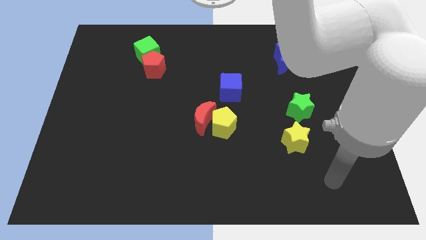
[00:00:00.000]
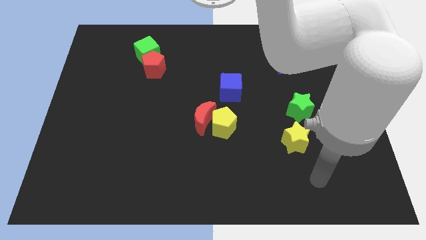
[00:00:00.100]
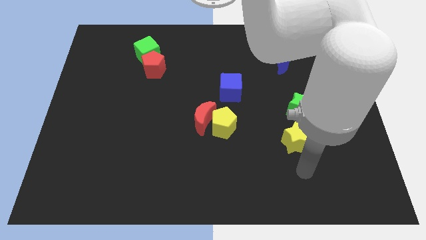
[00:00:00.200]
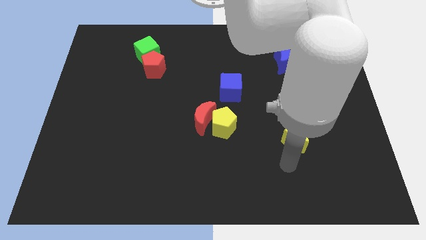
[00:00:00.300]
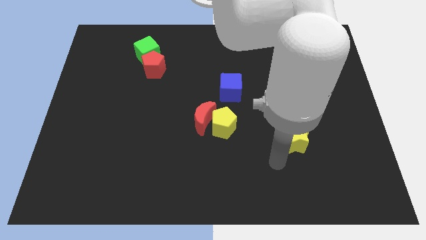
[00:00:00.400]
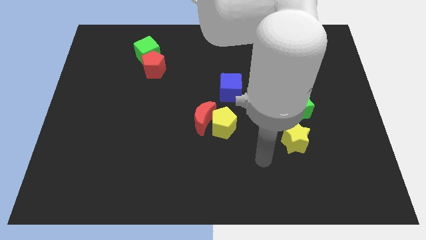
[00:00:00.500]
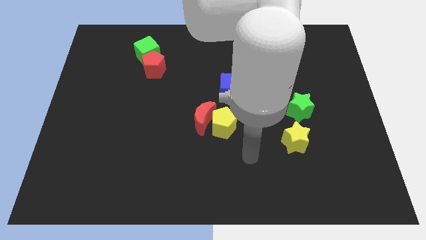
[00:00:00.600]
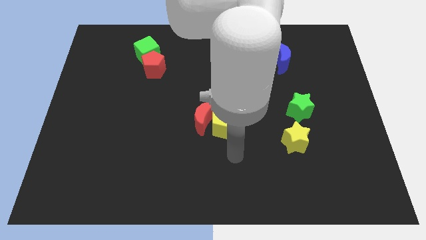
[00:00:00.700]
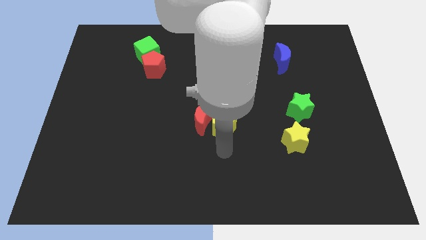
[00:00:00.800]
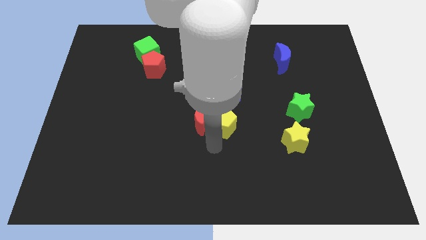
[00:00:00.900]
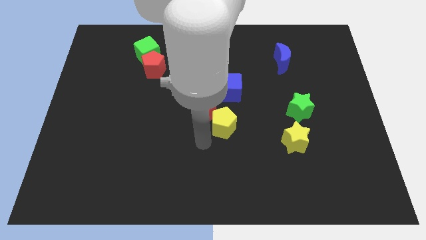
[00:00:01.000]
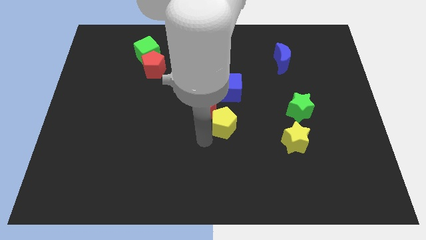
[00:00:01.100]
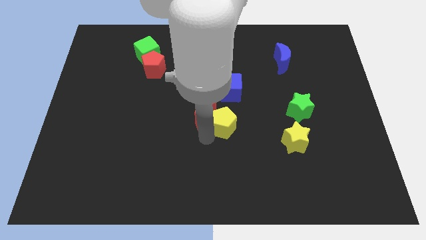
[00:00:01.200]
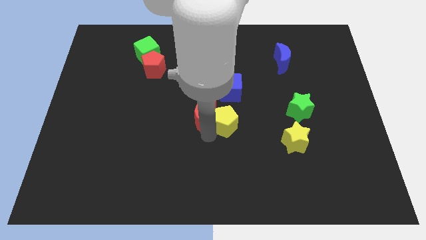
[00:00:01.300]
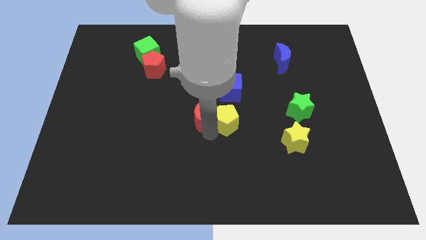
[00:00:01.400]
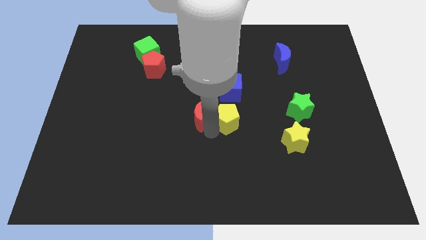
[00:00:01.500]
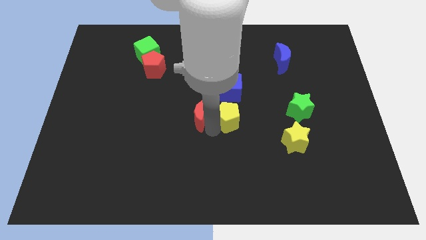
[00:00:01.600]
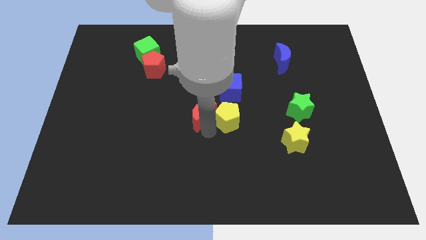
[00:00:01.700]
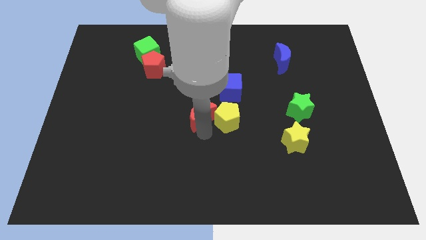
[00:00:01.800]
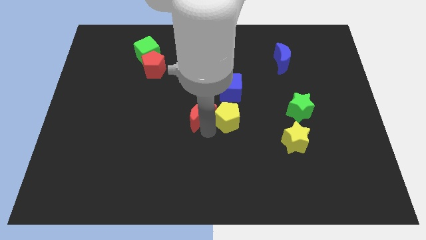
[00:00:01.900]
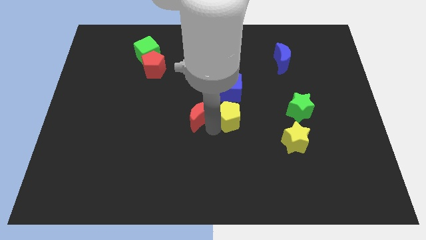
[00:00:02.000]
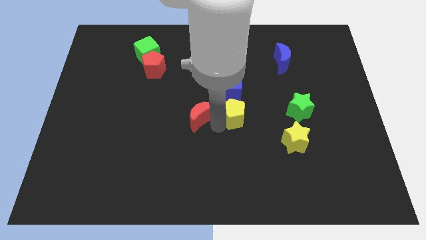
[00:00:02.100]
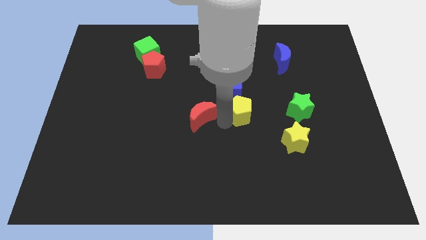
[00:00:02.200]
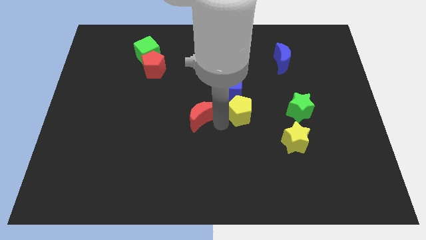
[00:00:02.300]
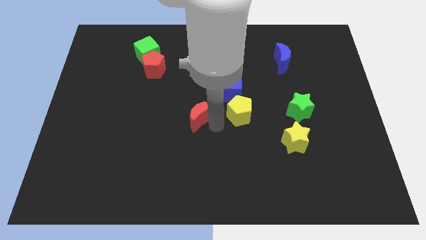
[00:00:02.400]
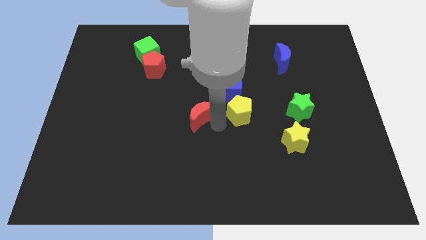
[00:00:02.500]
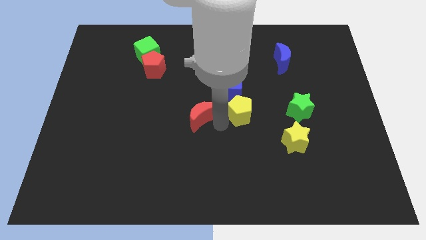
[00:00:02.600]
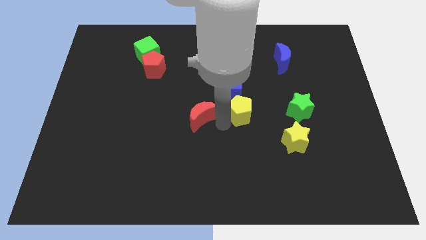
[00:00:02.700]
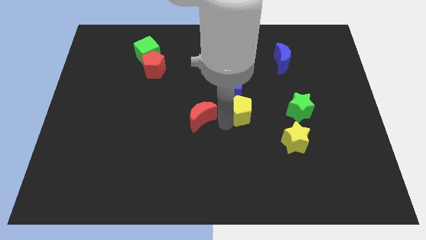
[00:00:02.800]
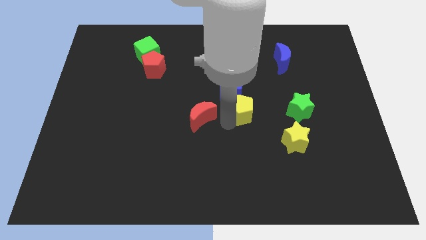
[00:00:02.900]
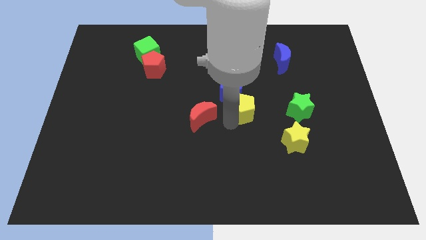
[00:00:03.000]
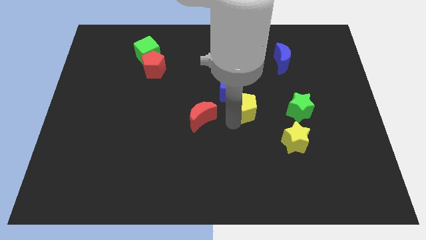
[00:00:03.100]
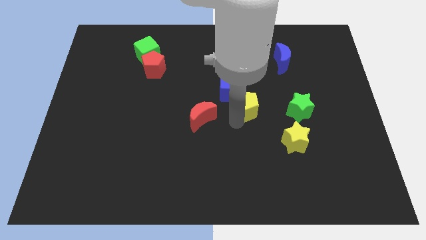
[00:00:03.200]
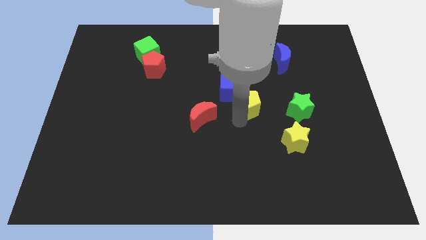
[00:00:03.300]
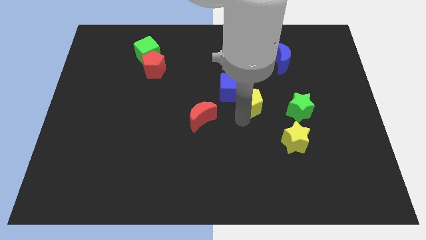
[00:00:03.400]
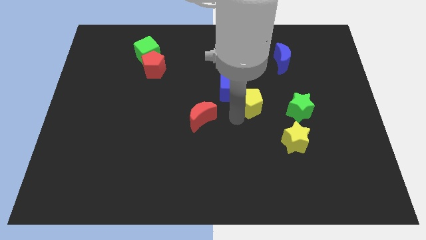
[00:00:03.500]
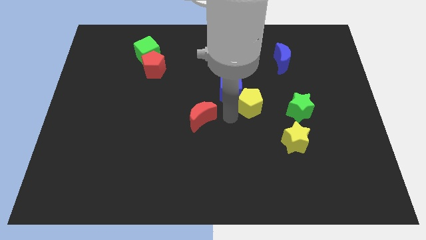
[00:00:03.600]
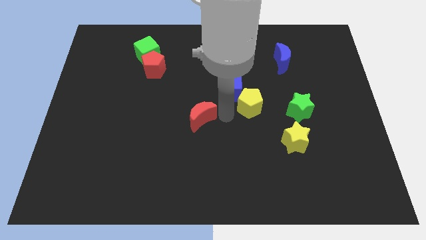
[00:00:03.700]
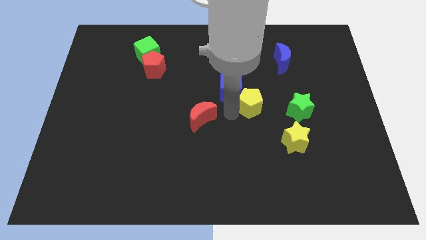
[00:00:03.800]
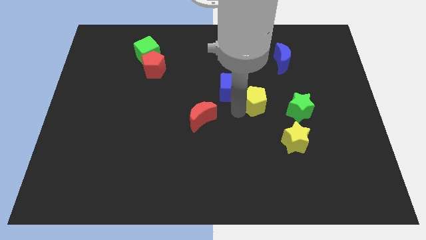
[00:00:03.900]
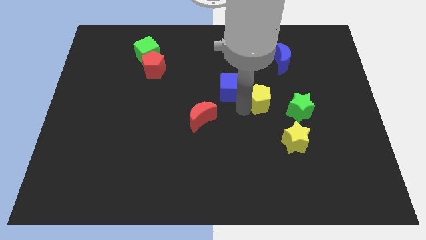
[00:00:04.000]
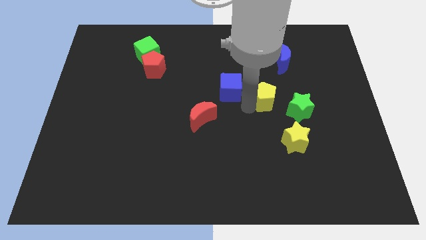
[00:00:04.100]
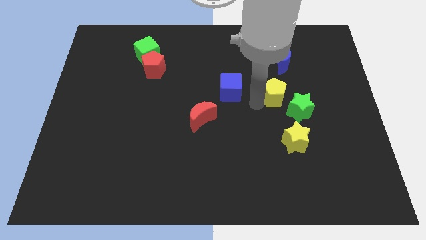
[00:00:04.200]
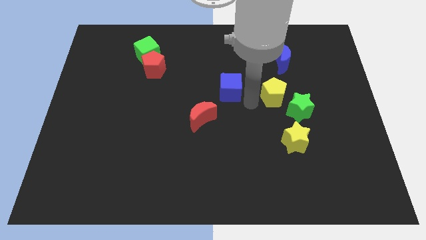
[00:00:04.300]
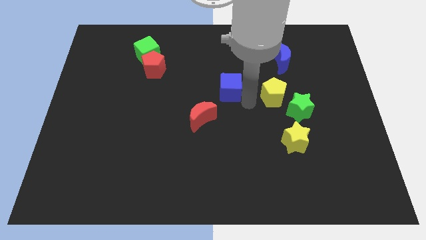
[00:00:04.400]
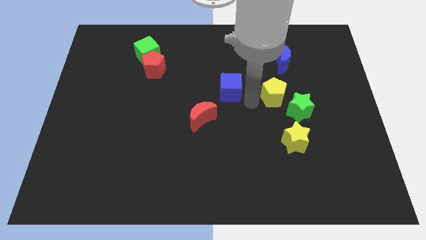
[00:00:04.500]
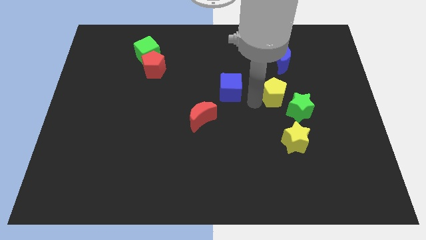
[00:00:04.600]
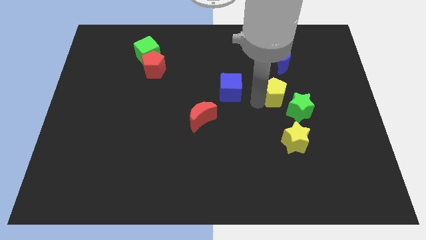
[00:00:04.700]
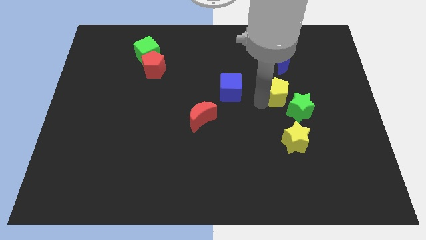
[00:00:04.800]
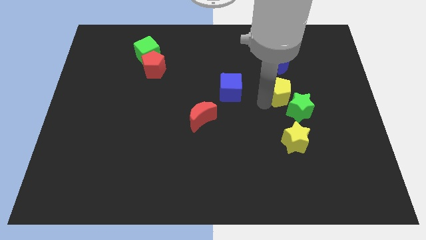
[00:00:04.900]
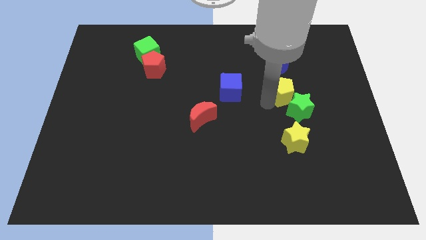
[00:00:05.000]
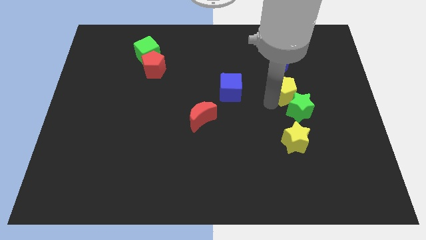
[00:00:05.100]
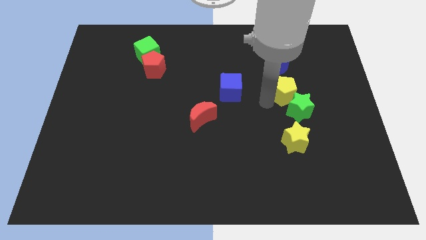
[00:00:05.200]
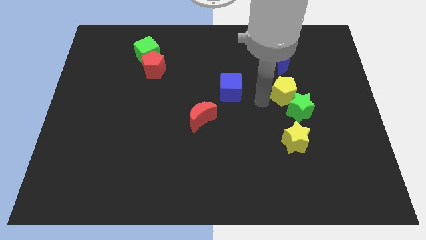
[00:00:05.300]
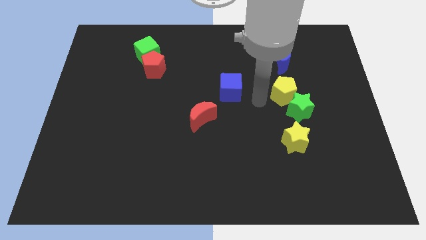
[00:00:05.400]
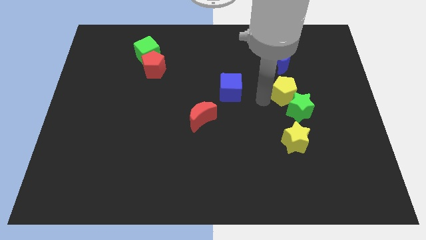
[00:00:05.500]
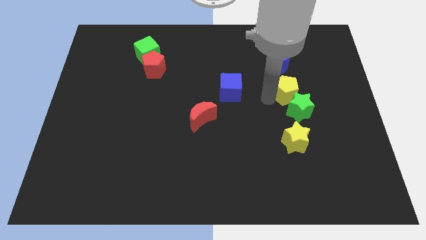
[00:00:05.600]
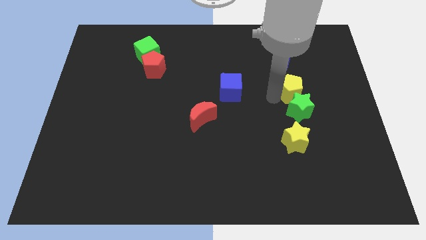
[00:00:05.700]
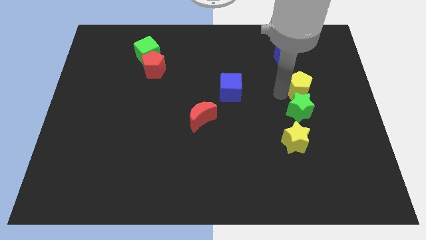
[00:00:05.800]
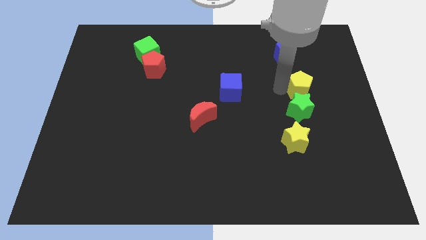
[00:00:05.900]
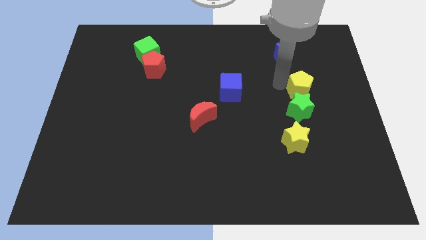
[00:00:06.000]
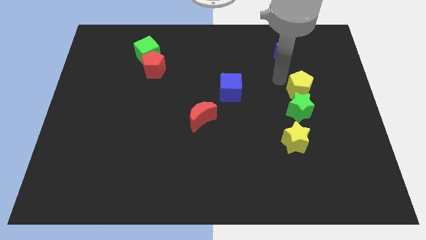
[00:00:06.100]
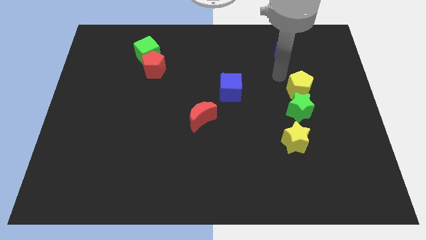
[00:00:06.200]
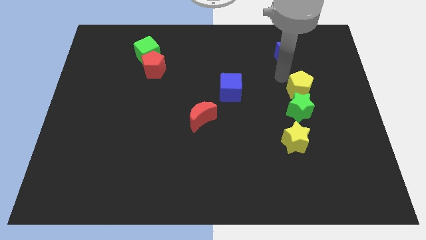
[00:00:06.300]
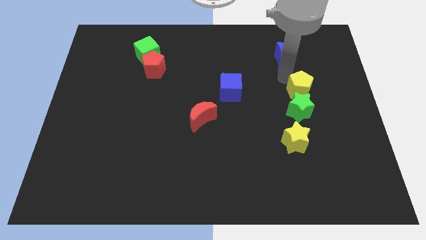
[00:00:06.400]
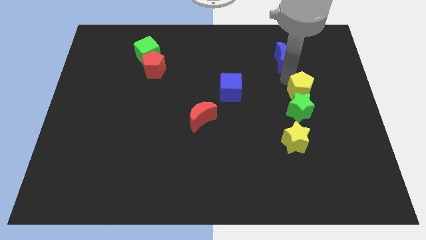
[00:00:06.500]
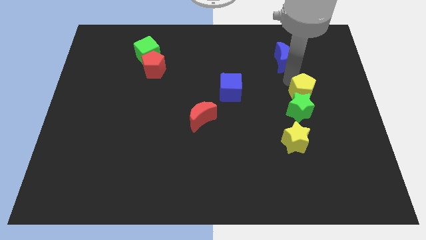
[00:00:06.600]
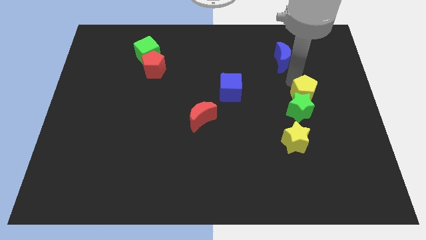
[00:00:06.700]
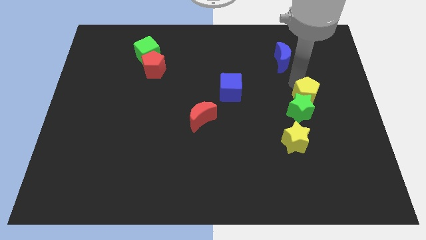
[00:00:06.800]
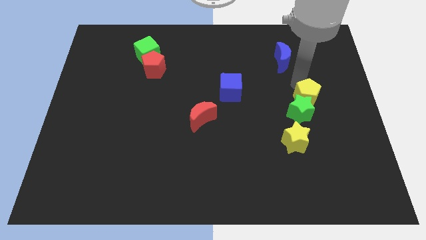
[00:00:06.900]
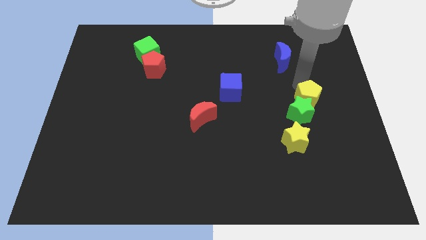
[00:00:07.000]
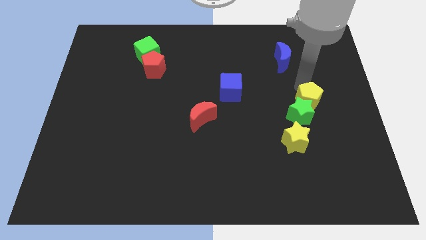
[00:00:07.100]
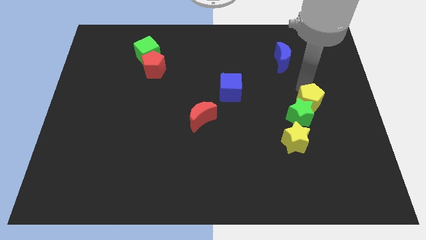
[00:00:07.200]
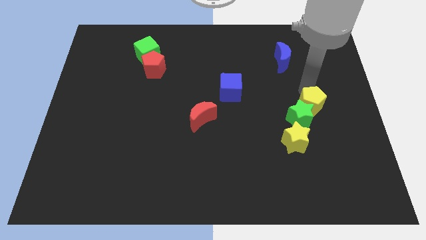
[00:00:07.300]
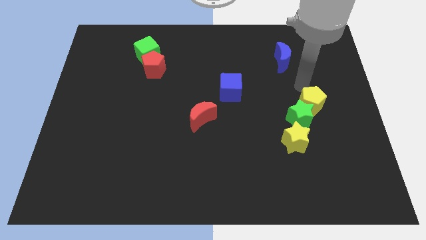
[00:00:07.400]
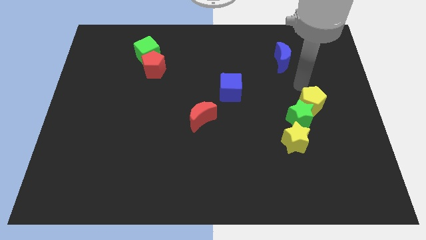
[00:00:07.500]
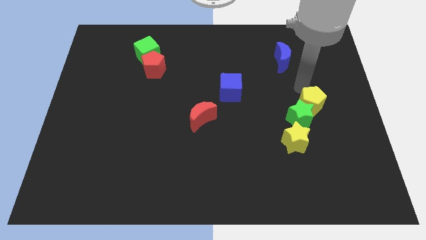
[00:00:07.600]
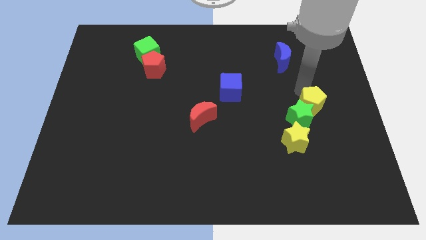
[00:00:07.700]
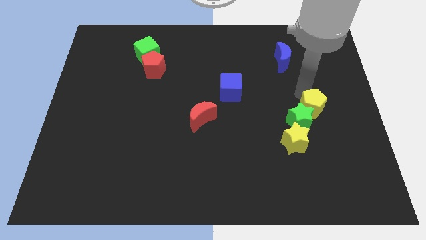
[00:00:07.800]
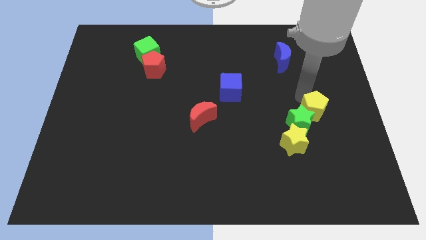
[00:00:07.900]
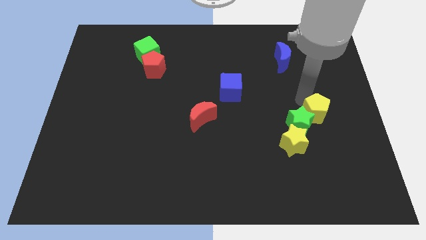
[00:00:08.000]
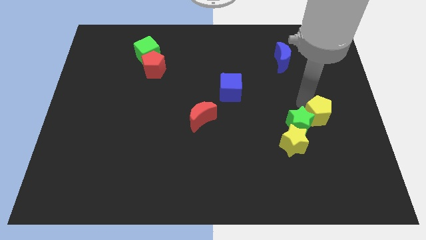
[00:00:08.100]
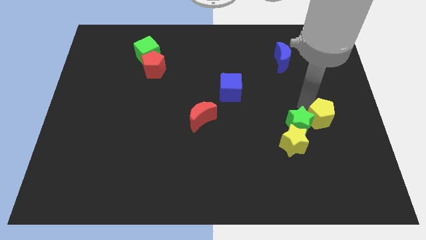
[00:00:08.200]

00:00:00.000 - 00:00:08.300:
move the yellow pentagon to the bottom right side of the green star
